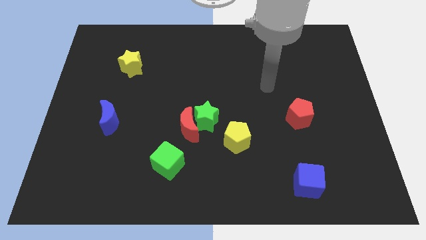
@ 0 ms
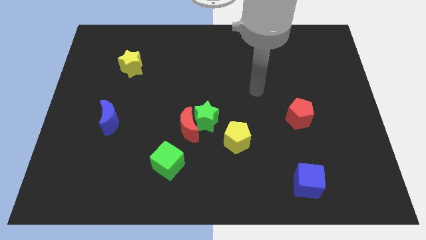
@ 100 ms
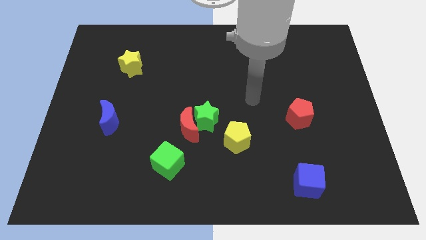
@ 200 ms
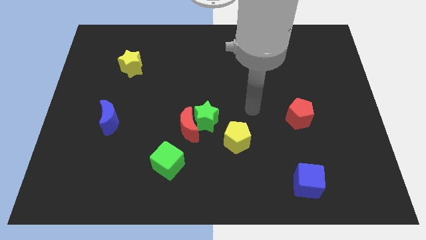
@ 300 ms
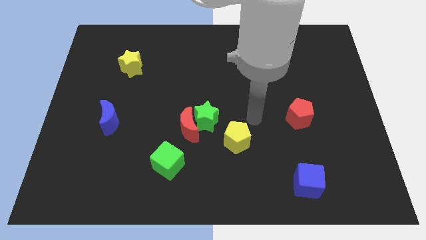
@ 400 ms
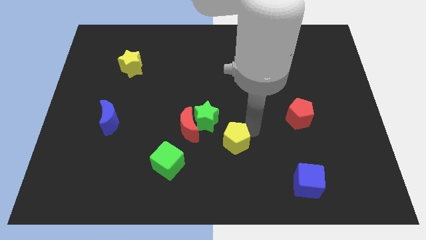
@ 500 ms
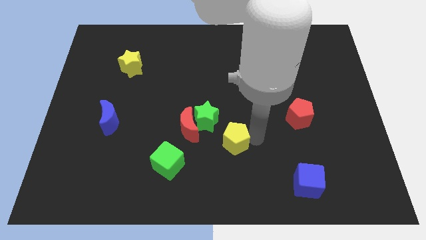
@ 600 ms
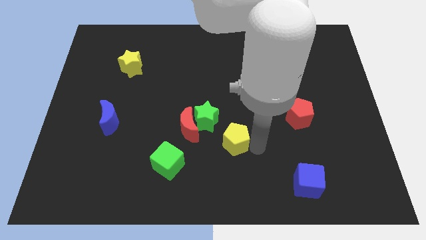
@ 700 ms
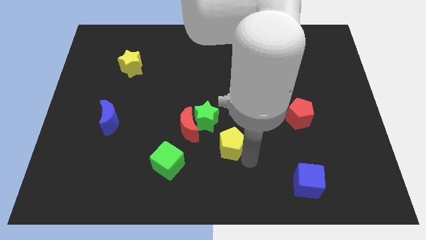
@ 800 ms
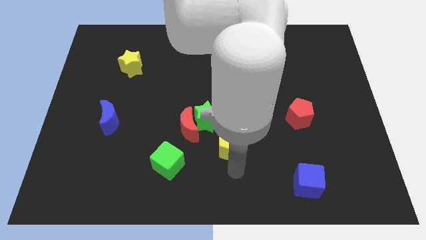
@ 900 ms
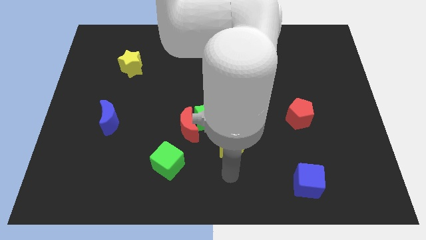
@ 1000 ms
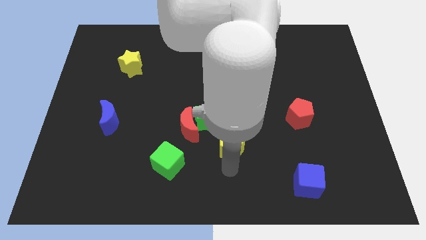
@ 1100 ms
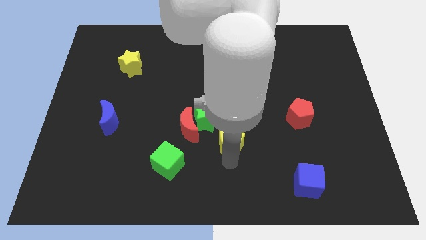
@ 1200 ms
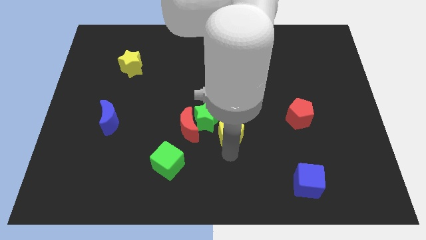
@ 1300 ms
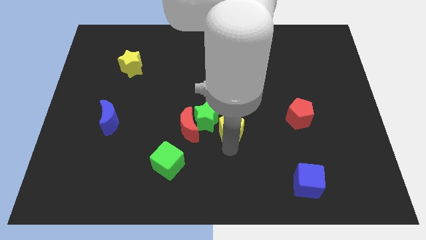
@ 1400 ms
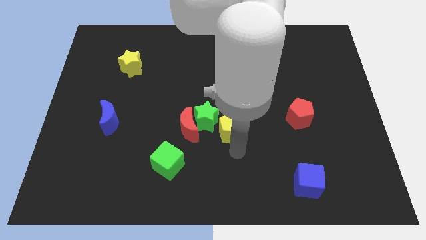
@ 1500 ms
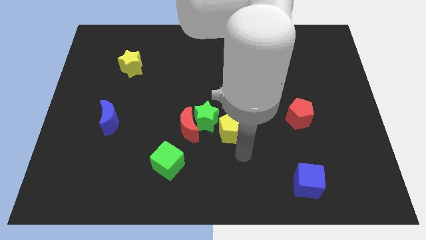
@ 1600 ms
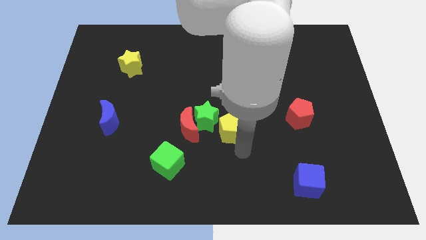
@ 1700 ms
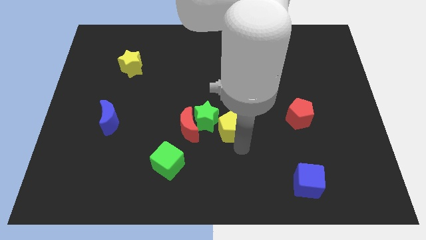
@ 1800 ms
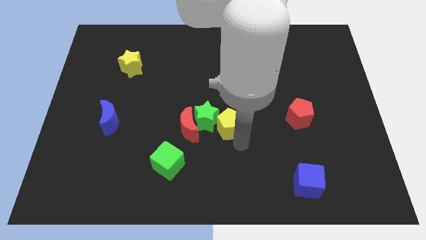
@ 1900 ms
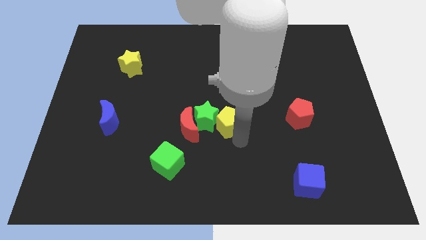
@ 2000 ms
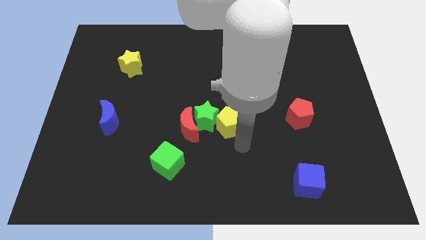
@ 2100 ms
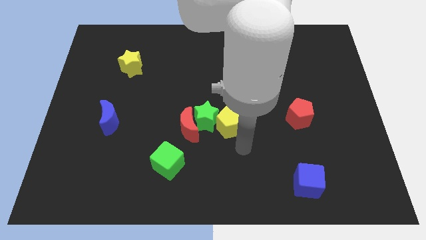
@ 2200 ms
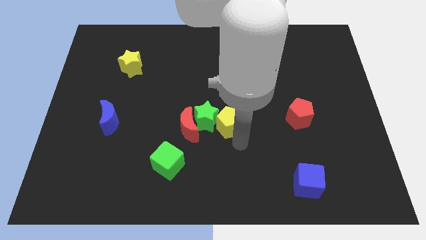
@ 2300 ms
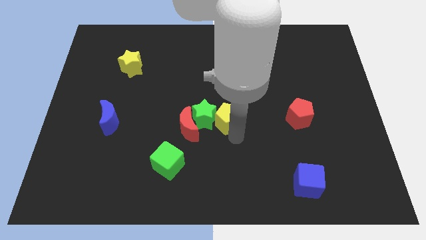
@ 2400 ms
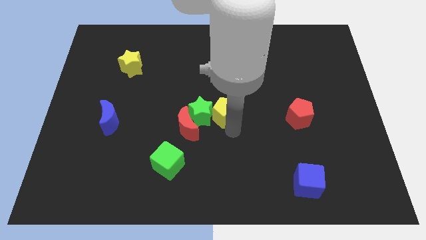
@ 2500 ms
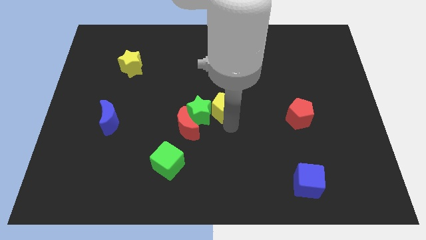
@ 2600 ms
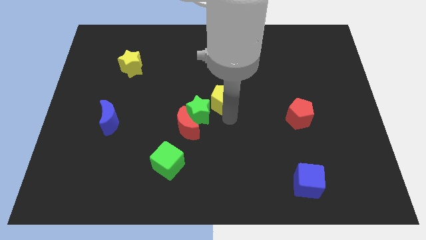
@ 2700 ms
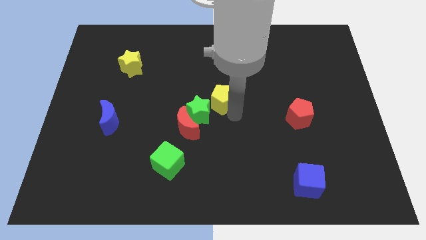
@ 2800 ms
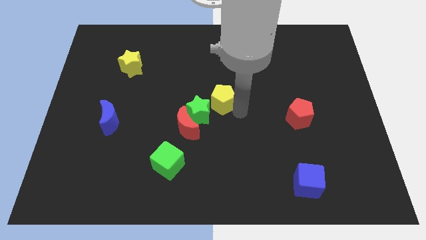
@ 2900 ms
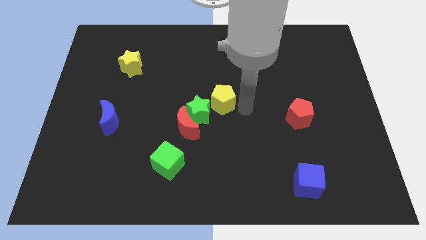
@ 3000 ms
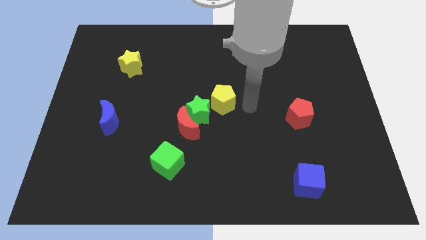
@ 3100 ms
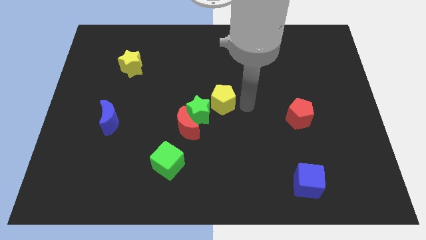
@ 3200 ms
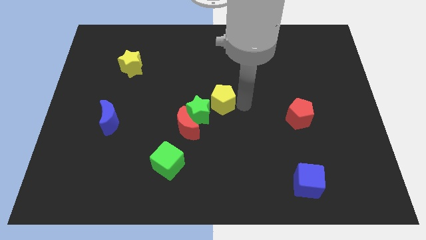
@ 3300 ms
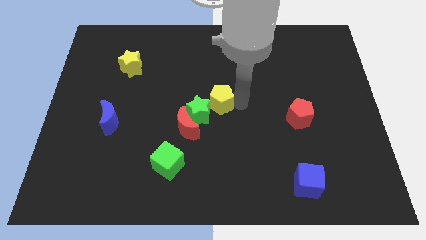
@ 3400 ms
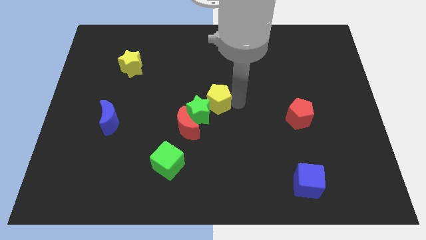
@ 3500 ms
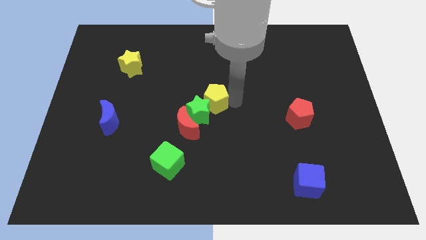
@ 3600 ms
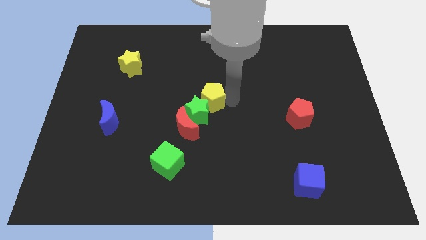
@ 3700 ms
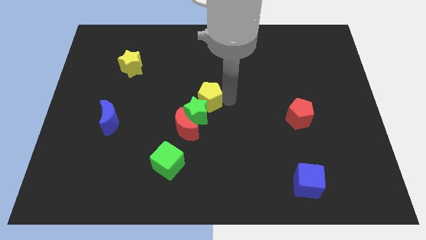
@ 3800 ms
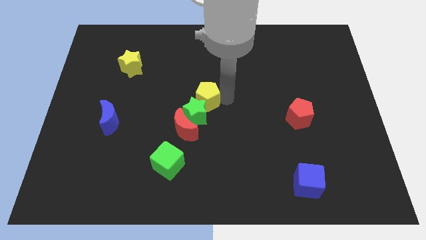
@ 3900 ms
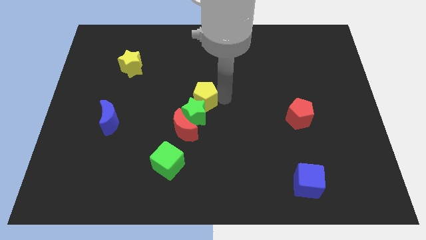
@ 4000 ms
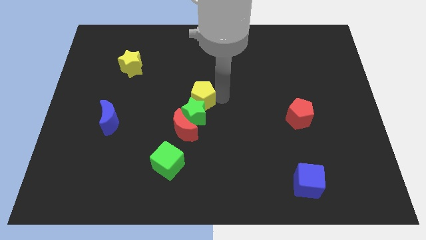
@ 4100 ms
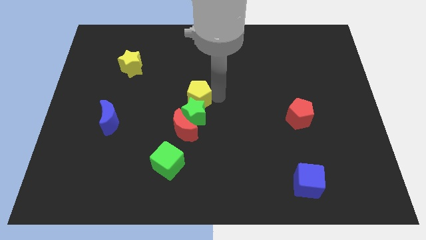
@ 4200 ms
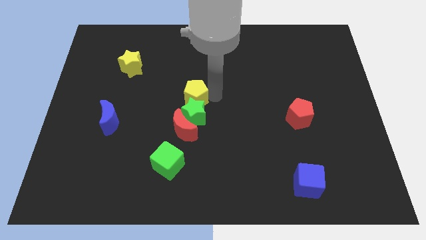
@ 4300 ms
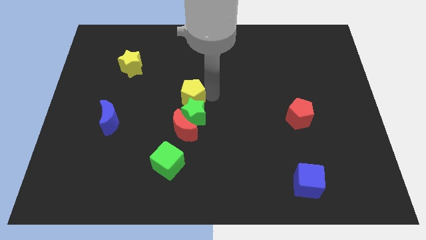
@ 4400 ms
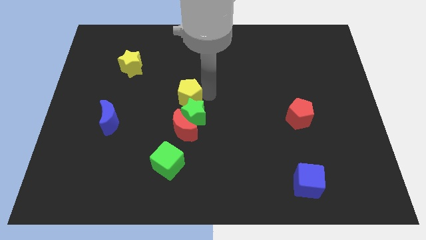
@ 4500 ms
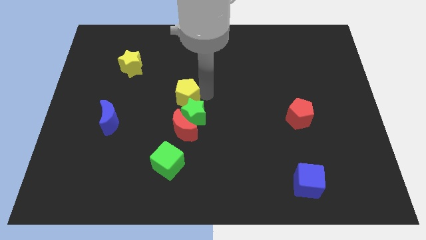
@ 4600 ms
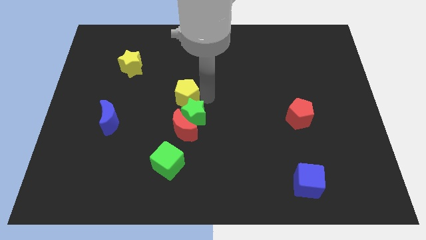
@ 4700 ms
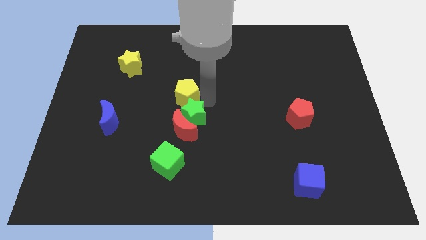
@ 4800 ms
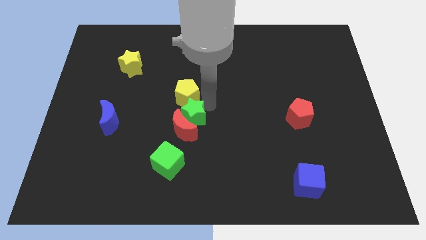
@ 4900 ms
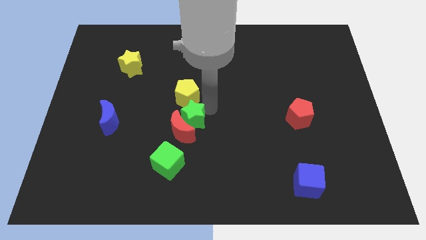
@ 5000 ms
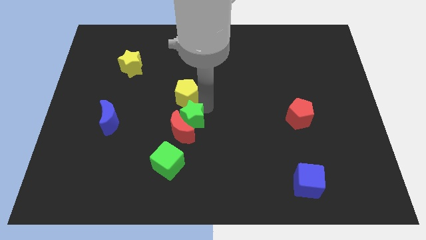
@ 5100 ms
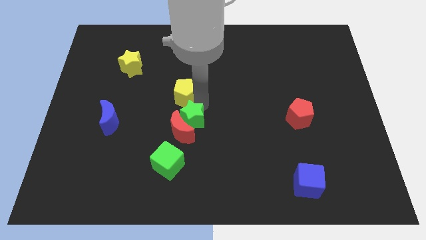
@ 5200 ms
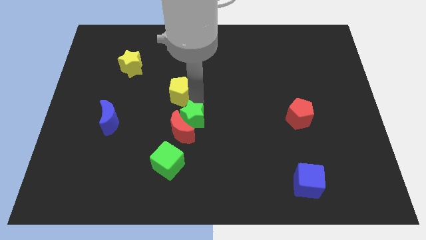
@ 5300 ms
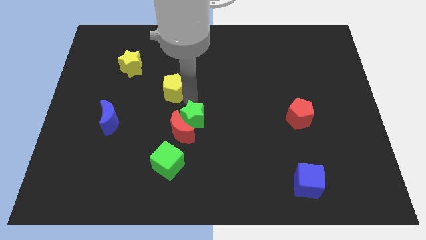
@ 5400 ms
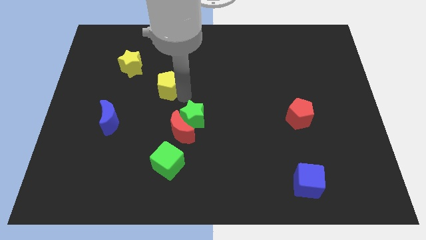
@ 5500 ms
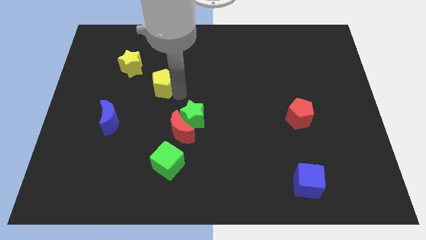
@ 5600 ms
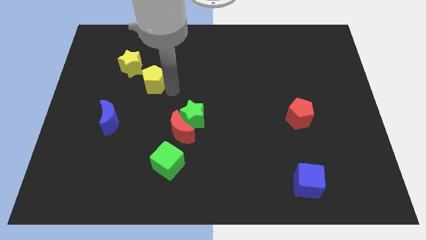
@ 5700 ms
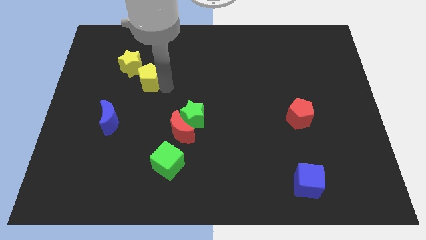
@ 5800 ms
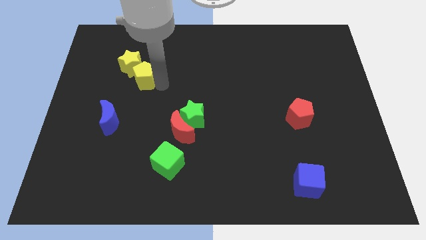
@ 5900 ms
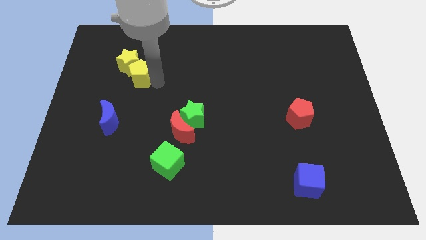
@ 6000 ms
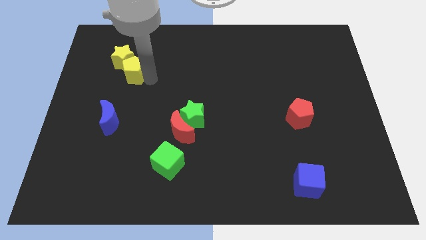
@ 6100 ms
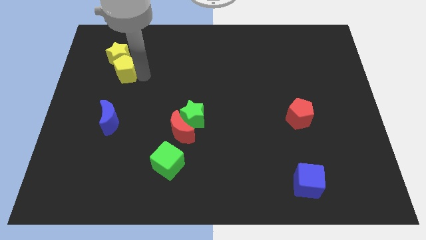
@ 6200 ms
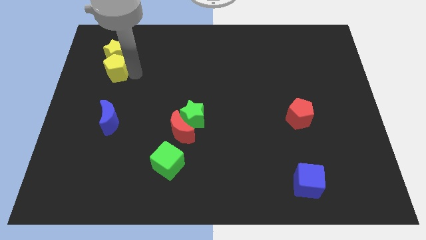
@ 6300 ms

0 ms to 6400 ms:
slide the yellow pentagon to the bottom left side of the yellow star
